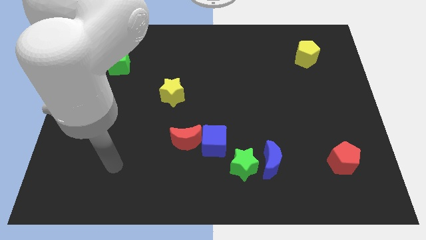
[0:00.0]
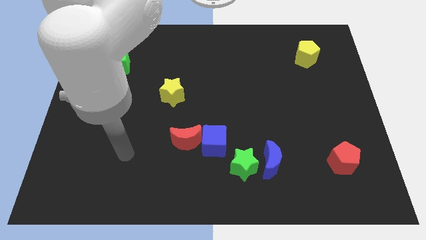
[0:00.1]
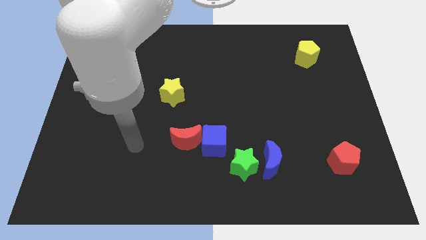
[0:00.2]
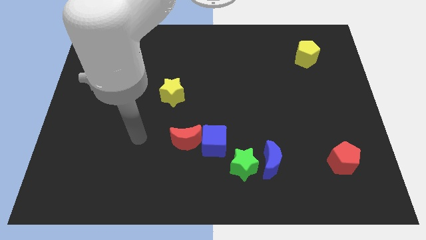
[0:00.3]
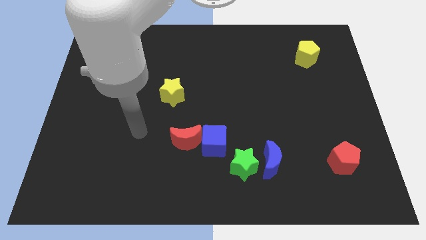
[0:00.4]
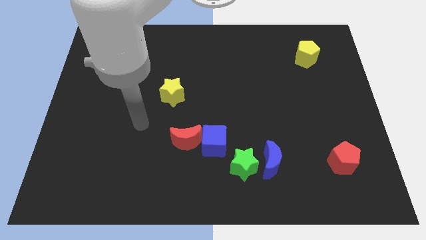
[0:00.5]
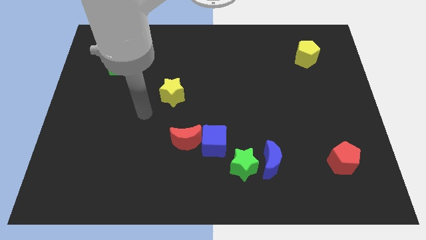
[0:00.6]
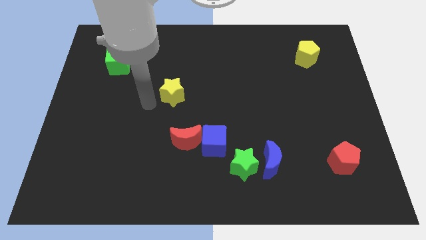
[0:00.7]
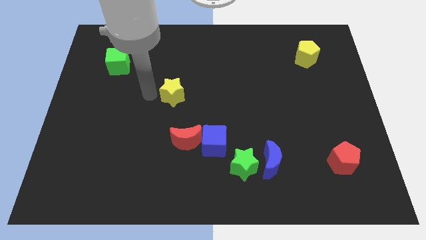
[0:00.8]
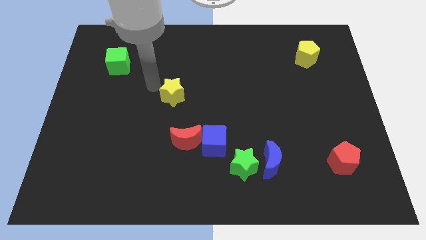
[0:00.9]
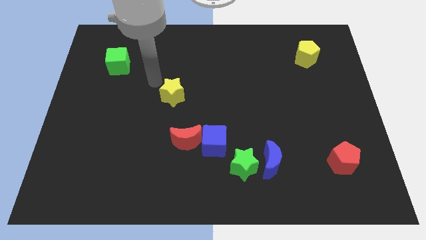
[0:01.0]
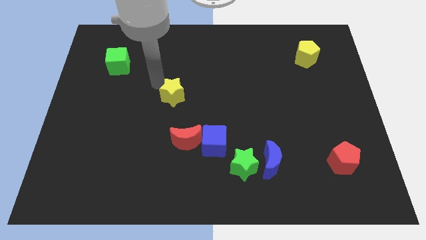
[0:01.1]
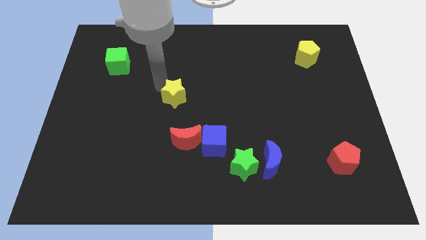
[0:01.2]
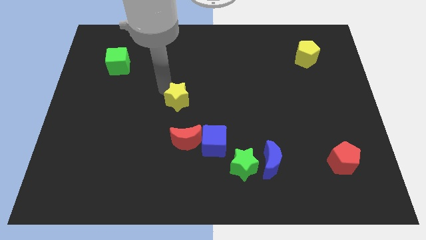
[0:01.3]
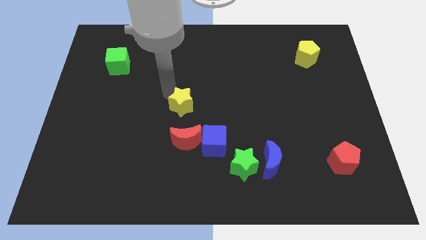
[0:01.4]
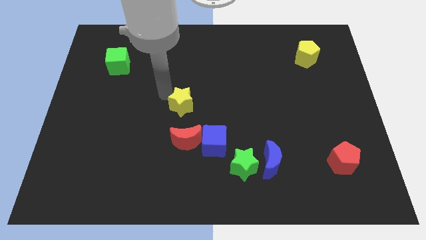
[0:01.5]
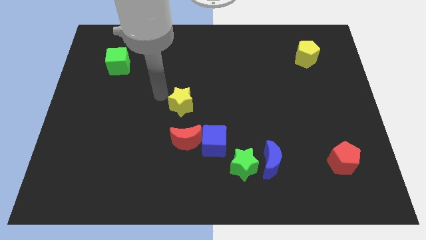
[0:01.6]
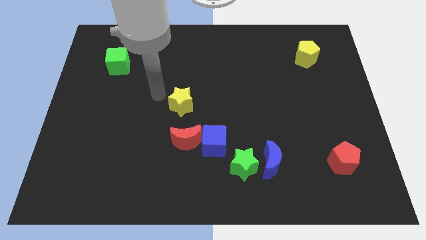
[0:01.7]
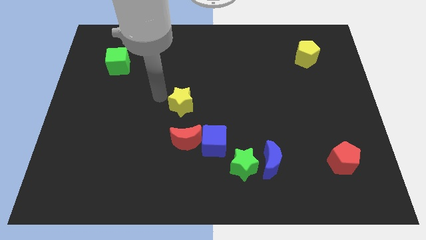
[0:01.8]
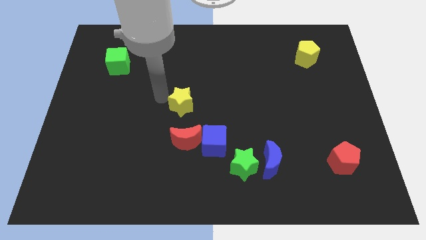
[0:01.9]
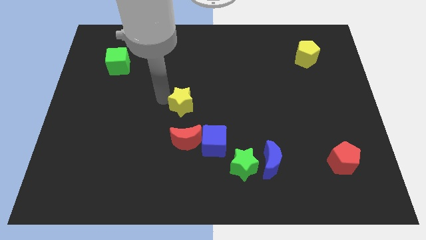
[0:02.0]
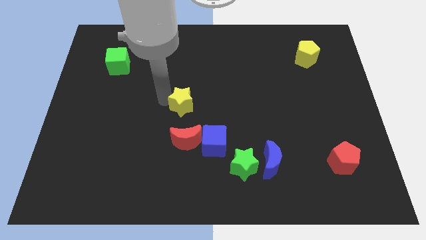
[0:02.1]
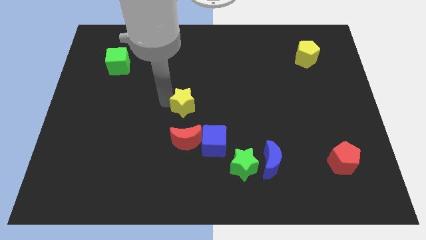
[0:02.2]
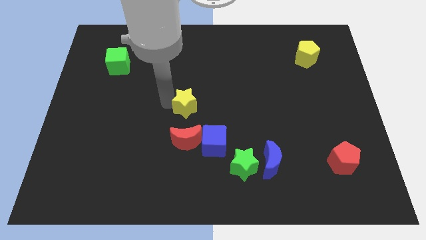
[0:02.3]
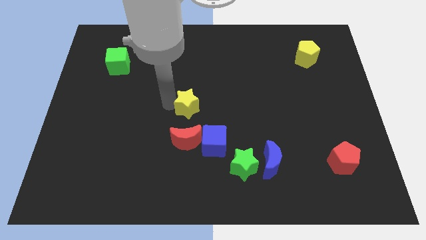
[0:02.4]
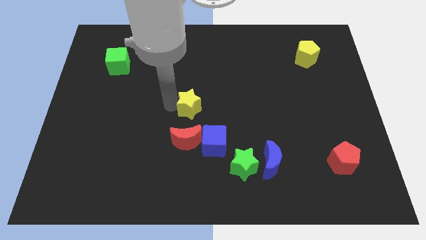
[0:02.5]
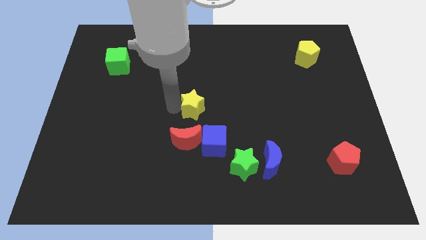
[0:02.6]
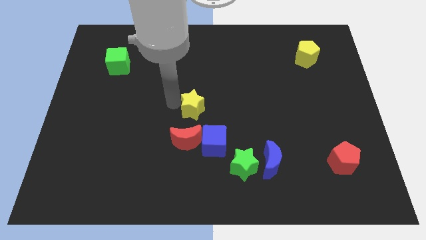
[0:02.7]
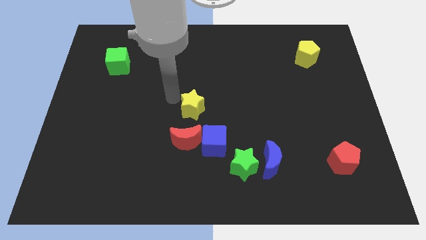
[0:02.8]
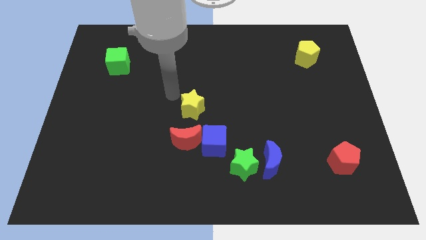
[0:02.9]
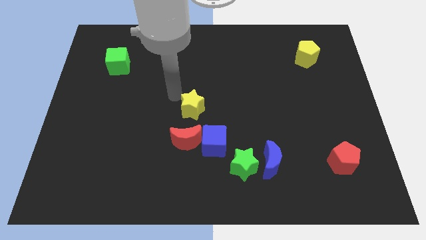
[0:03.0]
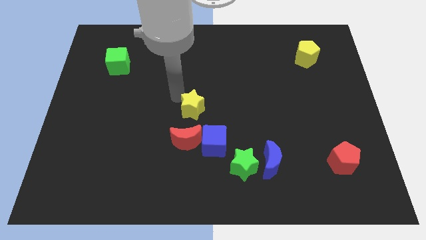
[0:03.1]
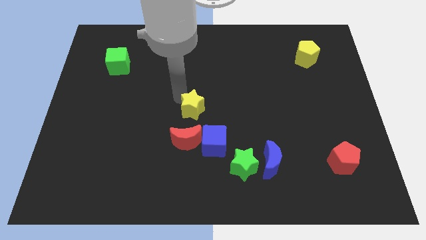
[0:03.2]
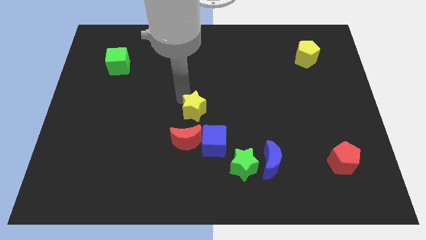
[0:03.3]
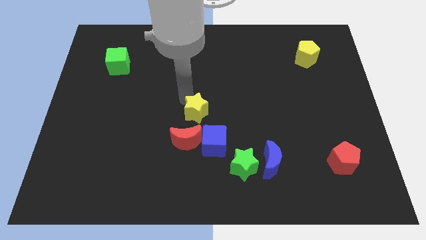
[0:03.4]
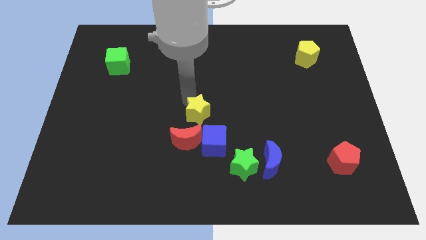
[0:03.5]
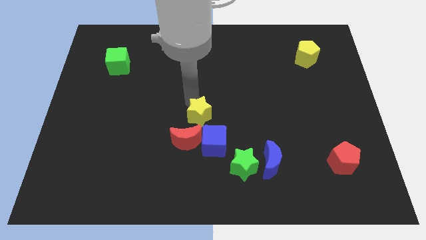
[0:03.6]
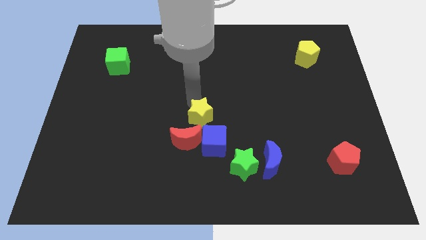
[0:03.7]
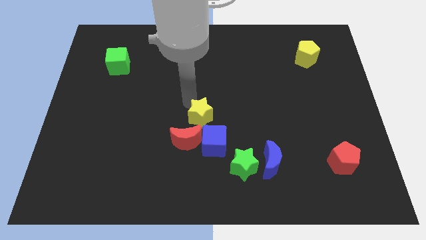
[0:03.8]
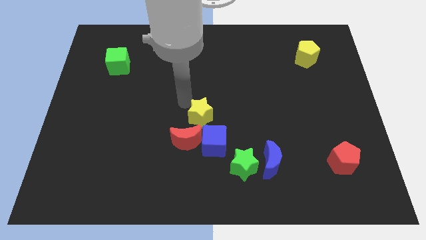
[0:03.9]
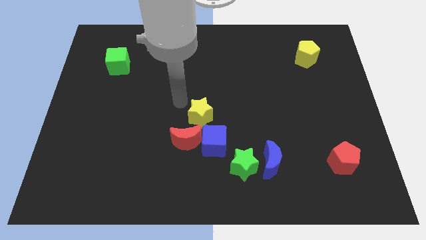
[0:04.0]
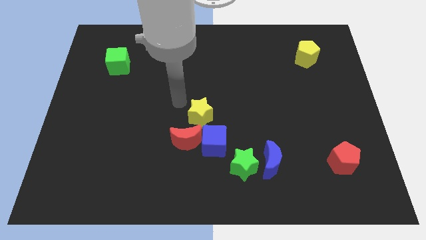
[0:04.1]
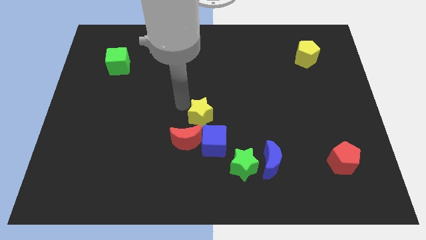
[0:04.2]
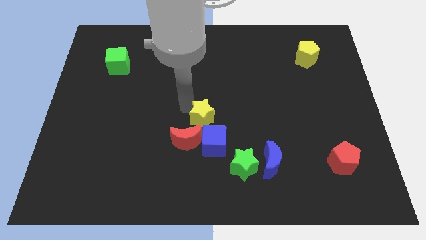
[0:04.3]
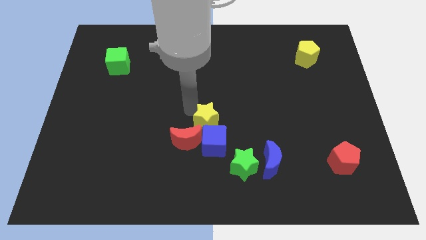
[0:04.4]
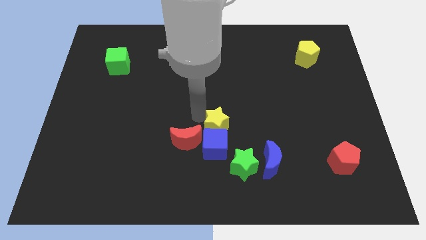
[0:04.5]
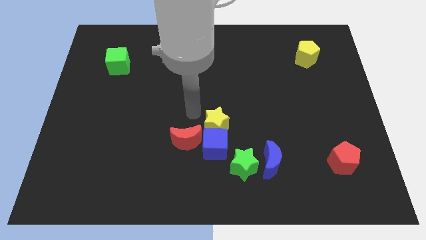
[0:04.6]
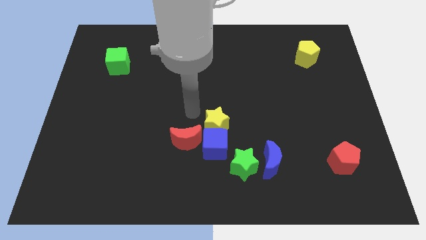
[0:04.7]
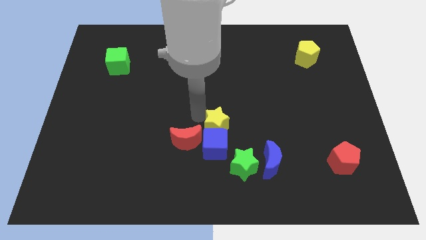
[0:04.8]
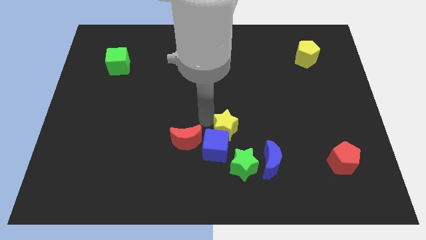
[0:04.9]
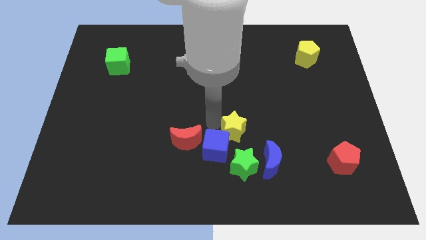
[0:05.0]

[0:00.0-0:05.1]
slide the yellow star diagonally up and to the left of the blue moon

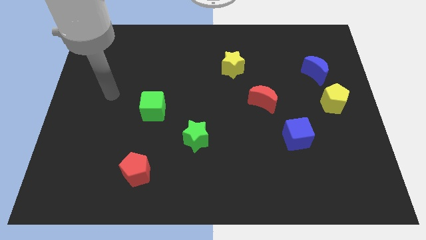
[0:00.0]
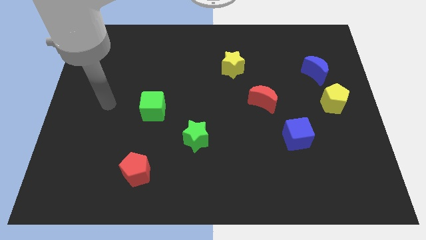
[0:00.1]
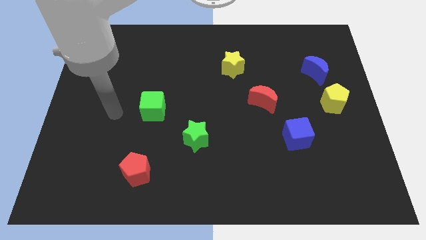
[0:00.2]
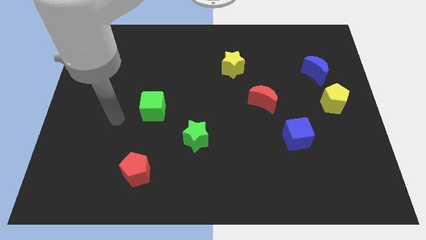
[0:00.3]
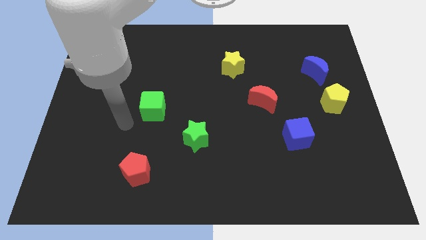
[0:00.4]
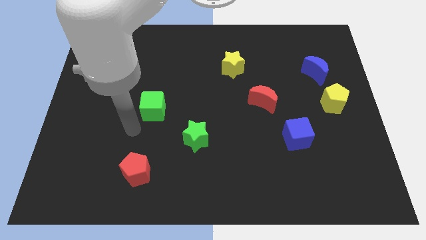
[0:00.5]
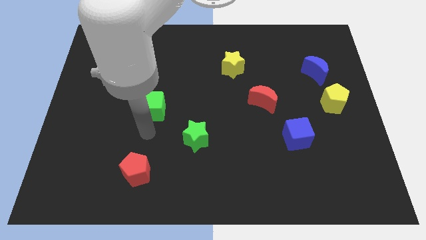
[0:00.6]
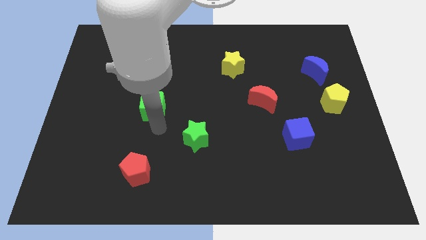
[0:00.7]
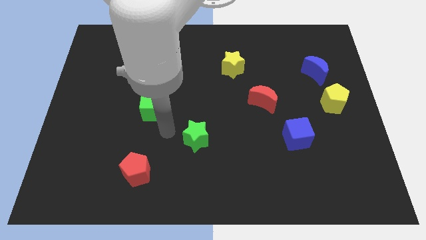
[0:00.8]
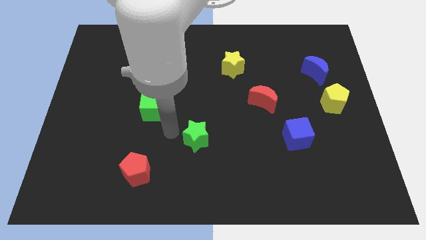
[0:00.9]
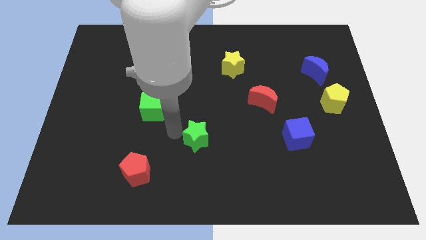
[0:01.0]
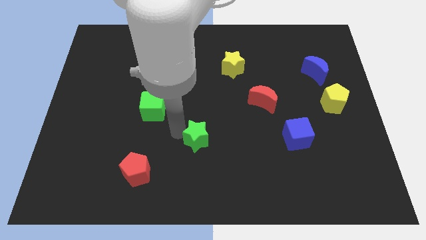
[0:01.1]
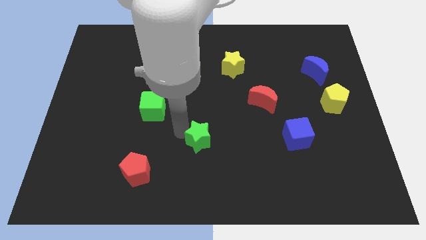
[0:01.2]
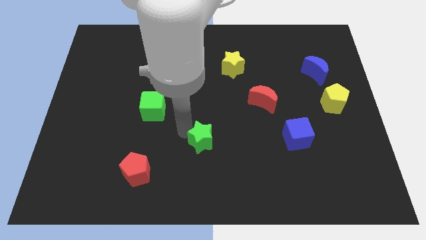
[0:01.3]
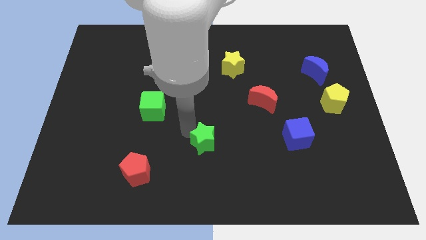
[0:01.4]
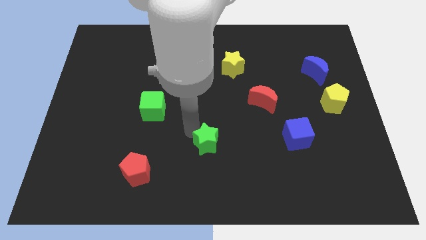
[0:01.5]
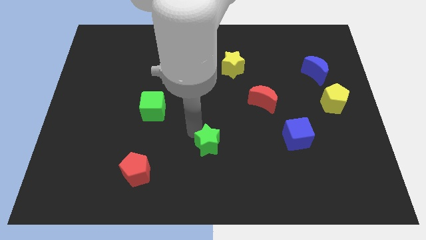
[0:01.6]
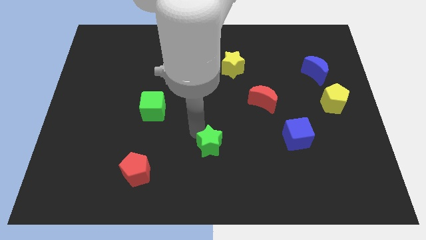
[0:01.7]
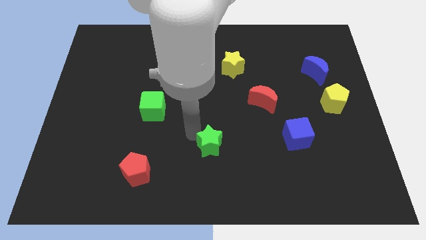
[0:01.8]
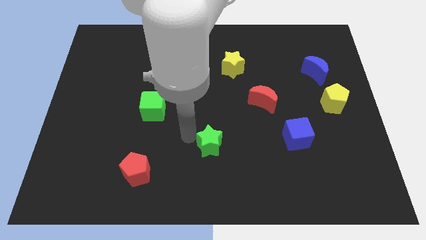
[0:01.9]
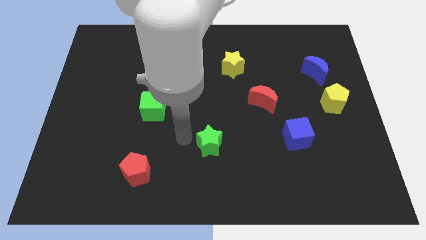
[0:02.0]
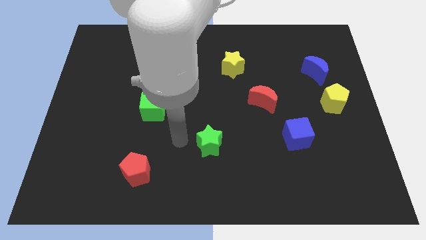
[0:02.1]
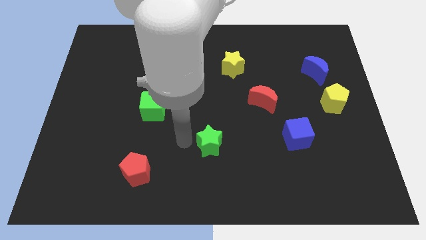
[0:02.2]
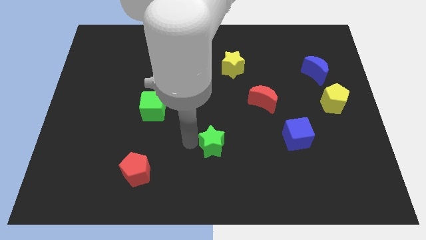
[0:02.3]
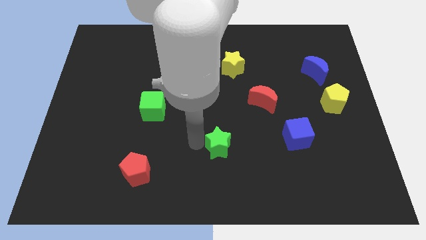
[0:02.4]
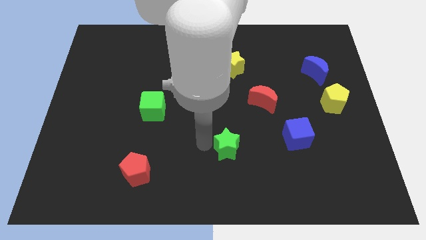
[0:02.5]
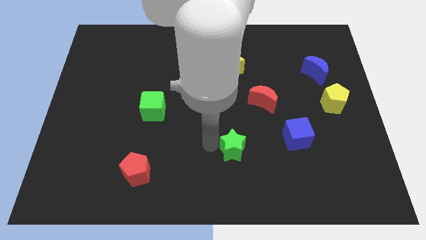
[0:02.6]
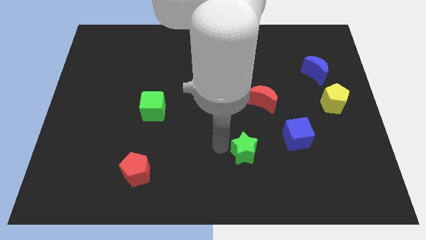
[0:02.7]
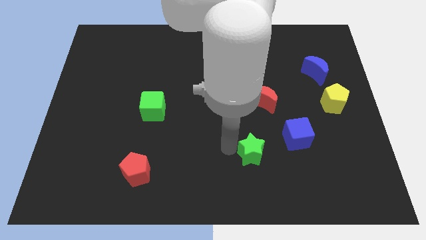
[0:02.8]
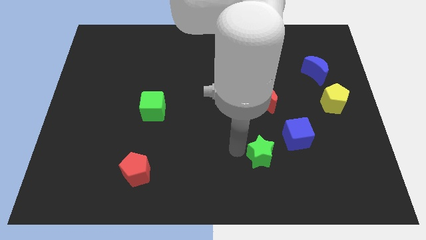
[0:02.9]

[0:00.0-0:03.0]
move the green star to the bottom left side of the blue cube
